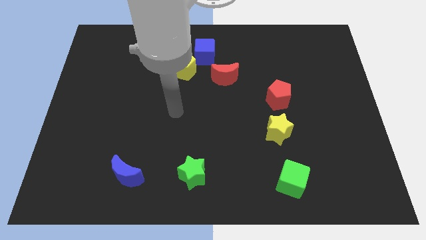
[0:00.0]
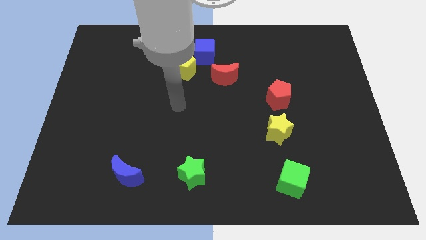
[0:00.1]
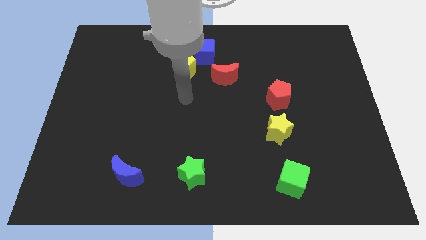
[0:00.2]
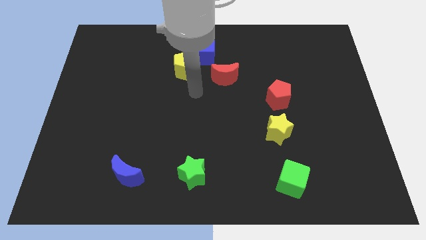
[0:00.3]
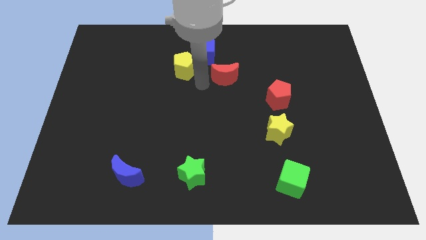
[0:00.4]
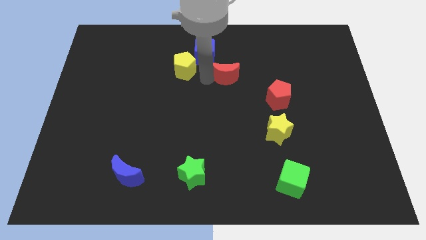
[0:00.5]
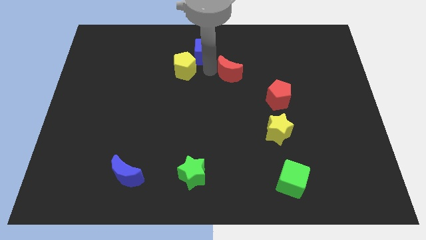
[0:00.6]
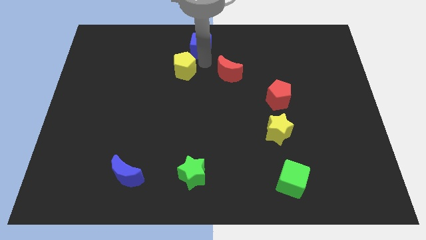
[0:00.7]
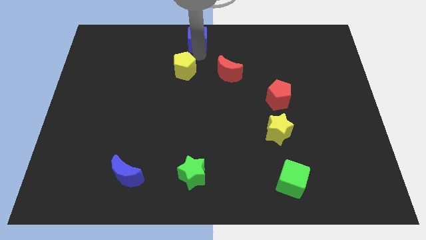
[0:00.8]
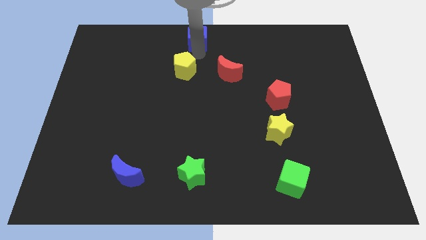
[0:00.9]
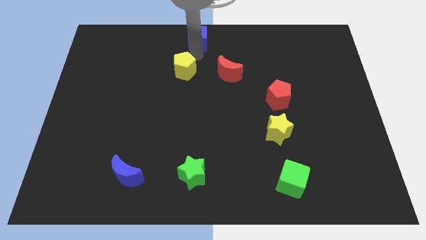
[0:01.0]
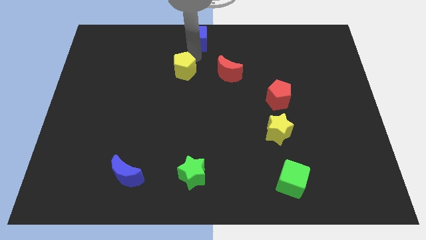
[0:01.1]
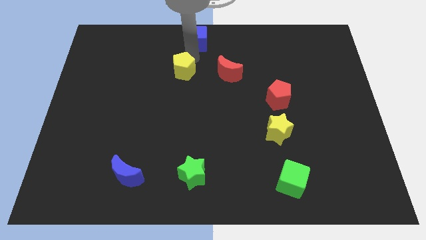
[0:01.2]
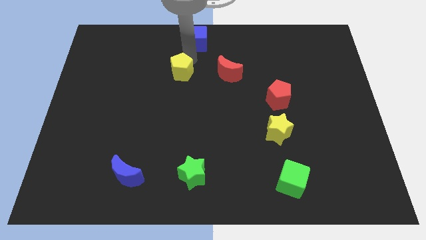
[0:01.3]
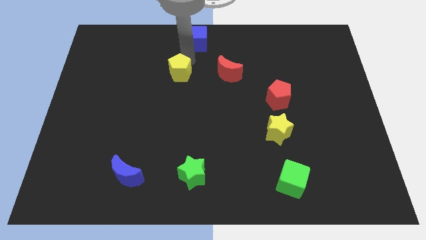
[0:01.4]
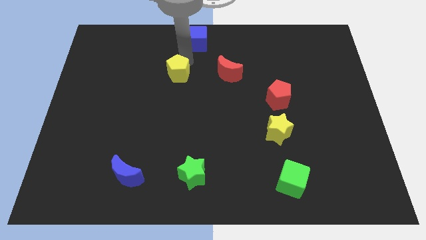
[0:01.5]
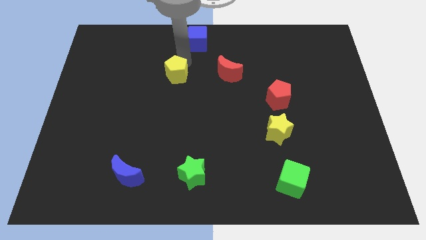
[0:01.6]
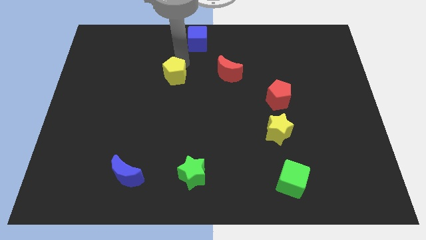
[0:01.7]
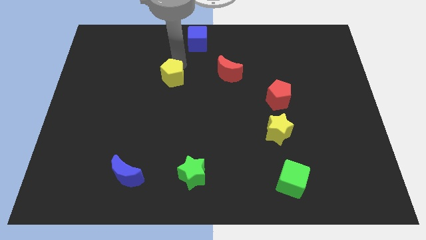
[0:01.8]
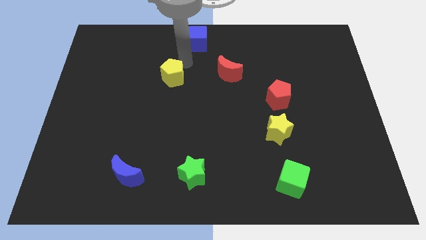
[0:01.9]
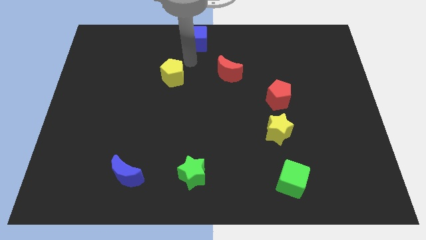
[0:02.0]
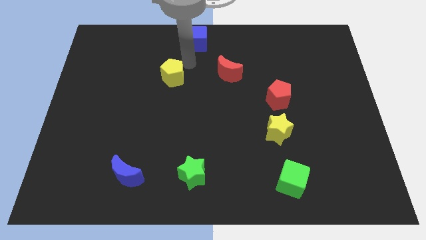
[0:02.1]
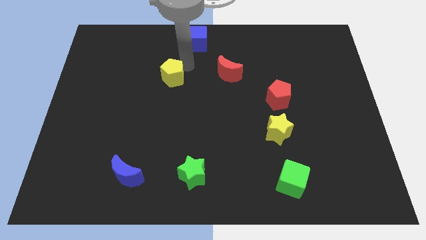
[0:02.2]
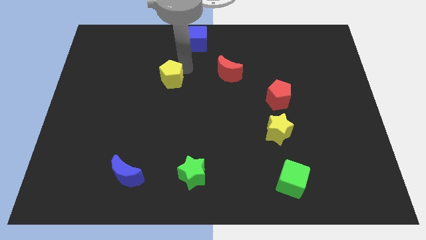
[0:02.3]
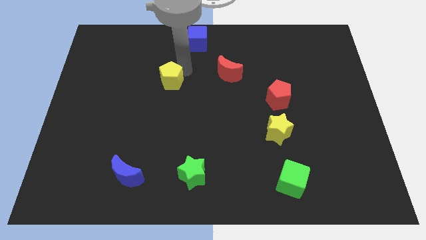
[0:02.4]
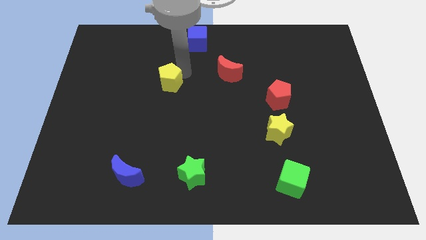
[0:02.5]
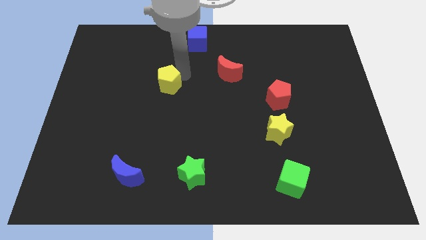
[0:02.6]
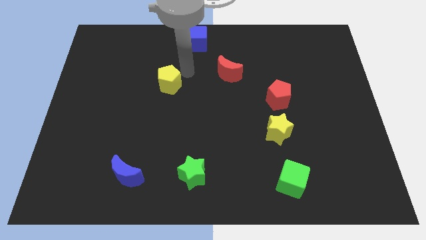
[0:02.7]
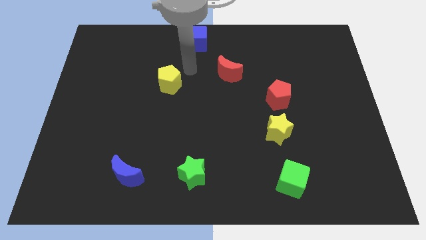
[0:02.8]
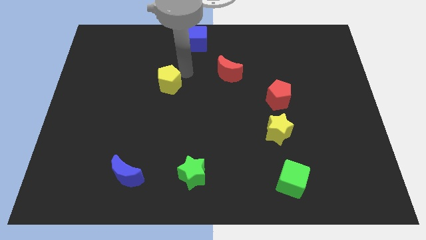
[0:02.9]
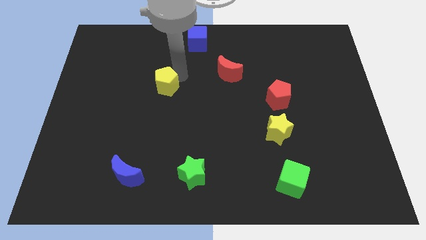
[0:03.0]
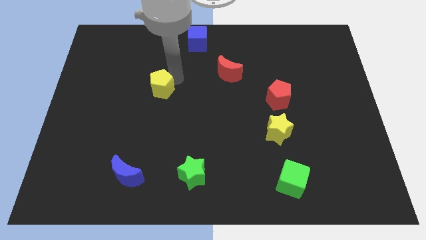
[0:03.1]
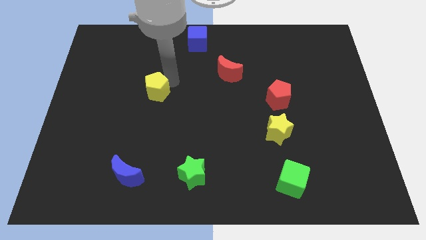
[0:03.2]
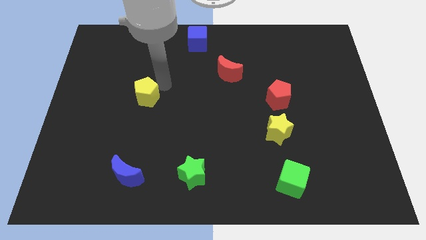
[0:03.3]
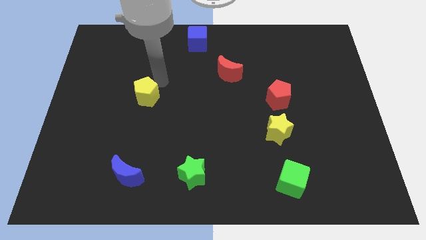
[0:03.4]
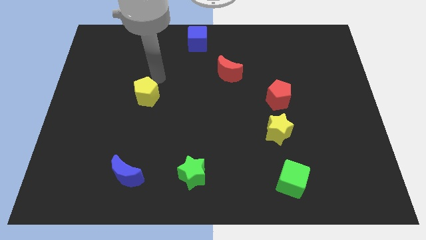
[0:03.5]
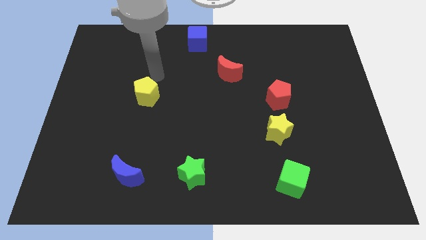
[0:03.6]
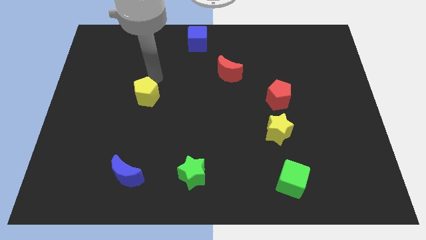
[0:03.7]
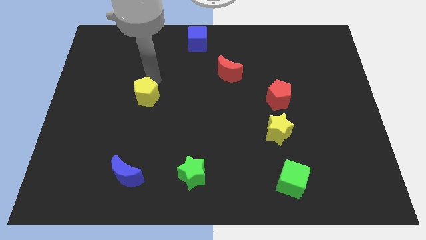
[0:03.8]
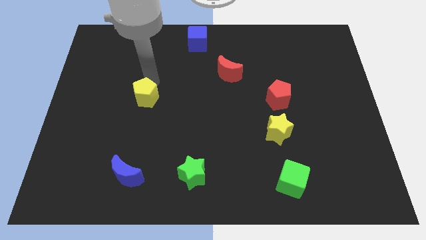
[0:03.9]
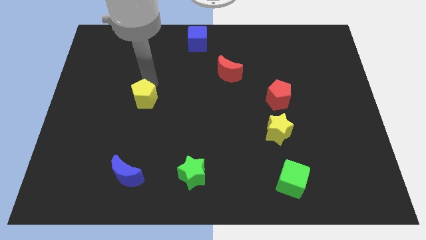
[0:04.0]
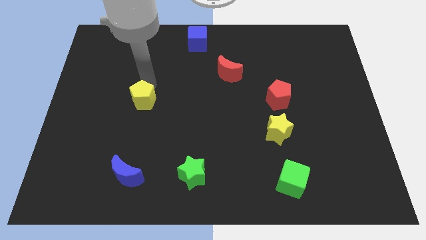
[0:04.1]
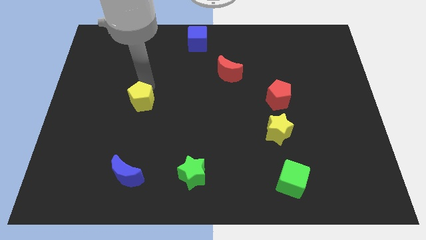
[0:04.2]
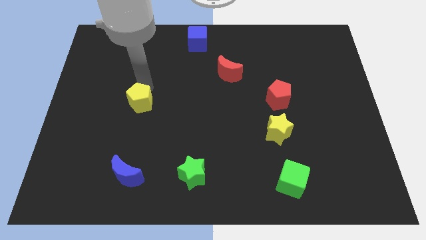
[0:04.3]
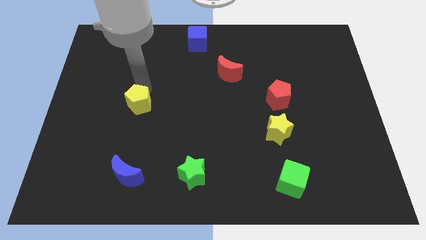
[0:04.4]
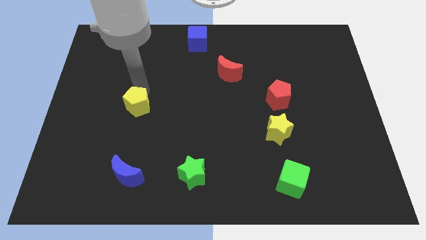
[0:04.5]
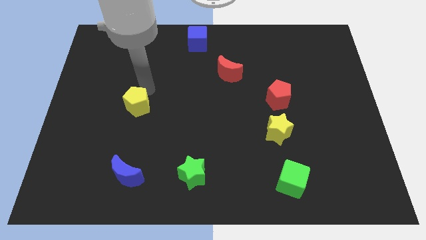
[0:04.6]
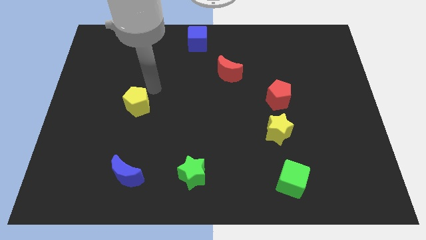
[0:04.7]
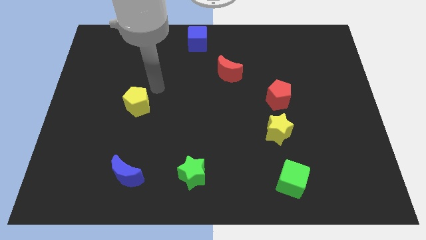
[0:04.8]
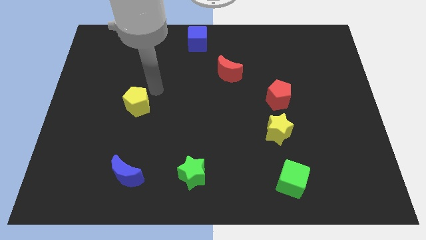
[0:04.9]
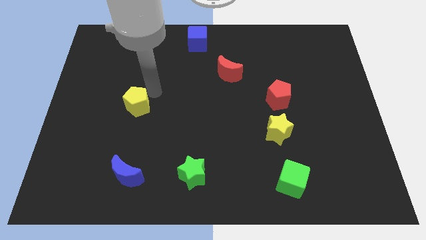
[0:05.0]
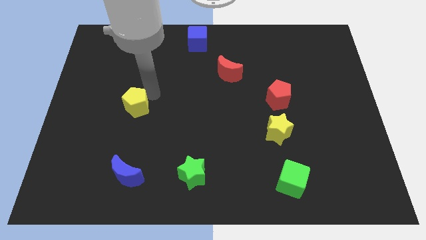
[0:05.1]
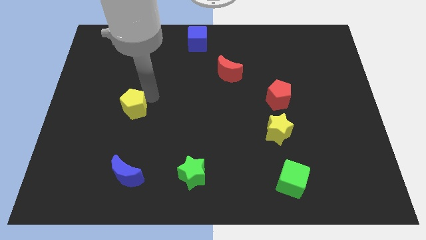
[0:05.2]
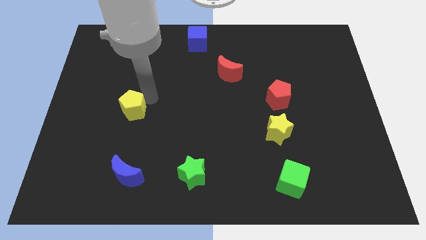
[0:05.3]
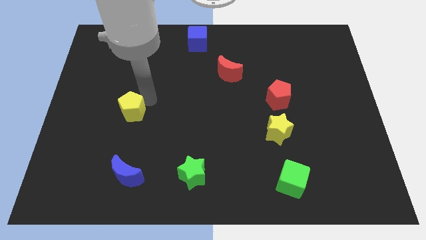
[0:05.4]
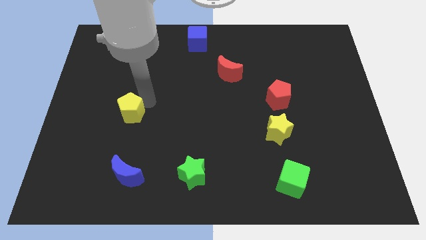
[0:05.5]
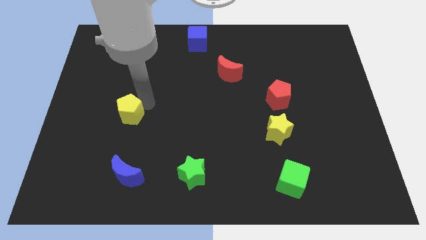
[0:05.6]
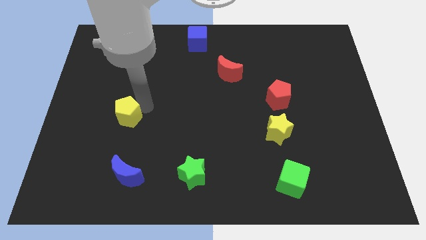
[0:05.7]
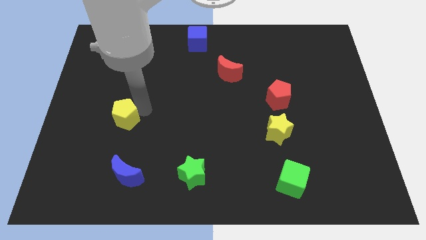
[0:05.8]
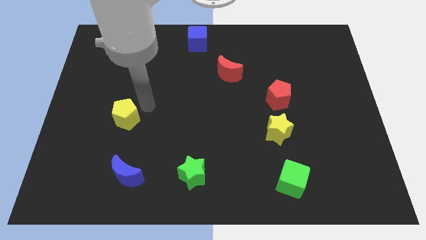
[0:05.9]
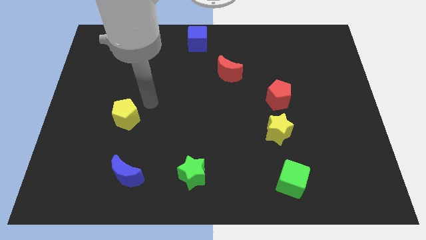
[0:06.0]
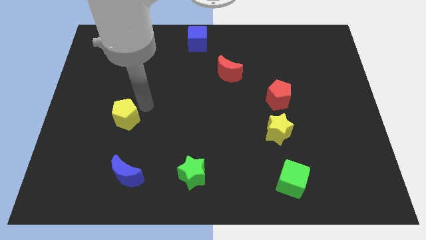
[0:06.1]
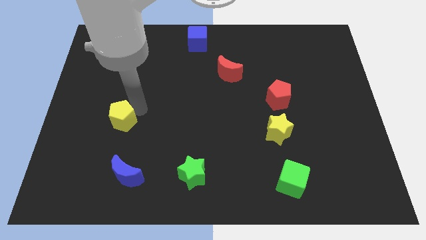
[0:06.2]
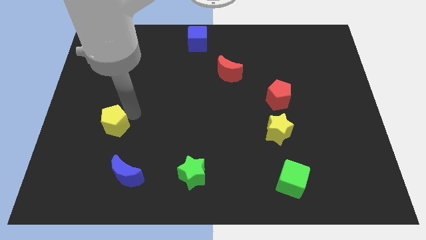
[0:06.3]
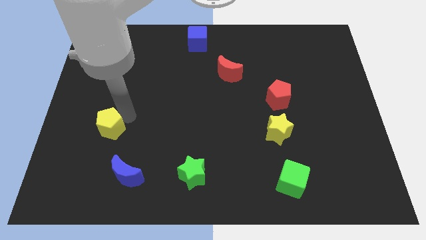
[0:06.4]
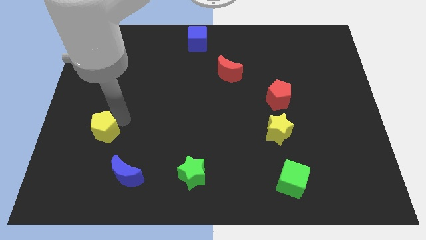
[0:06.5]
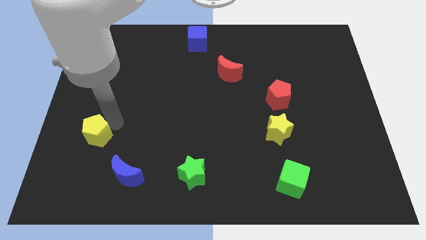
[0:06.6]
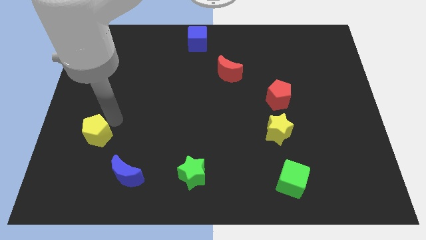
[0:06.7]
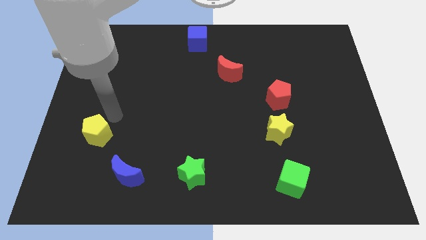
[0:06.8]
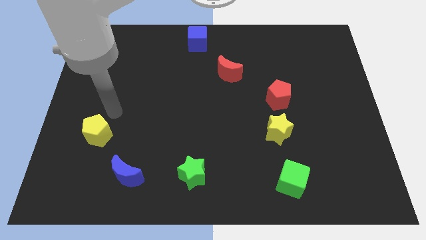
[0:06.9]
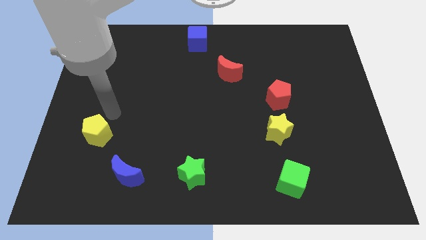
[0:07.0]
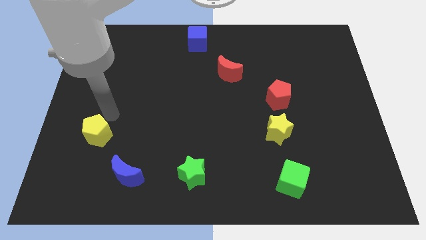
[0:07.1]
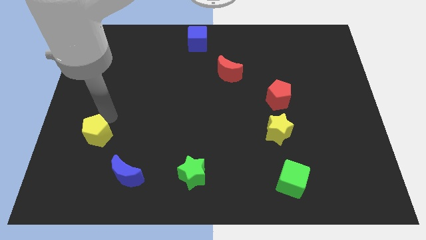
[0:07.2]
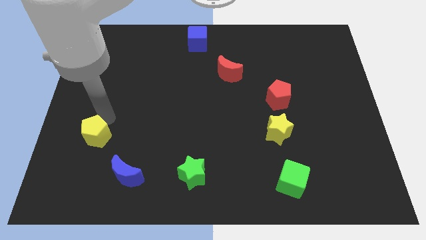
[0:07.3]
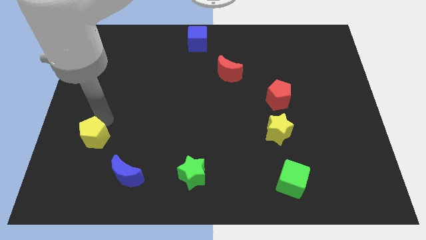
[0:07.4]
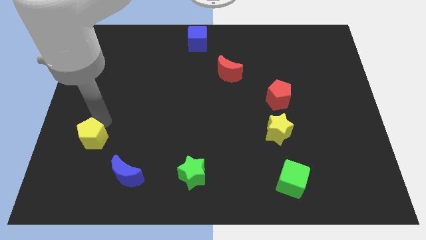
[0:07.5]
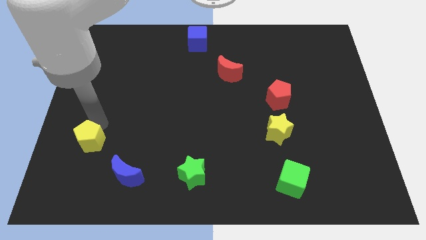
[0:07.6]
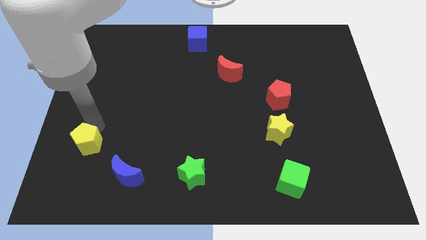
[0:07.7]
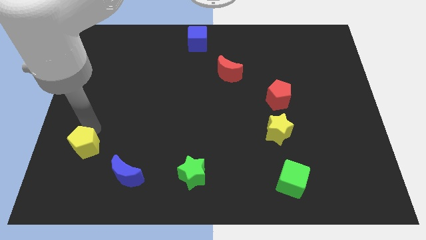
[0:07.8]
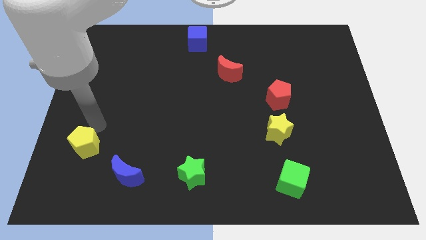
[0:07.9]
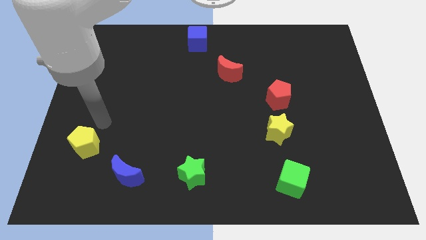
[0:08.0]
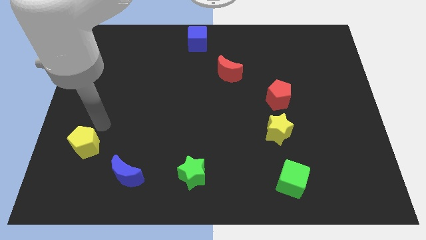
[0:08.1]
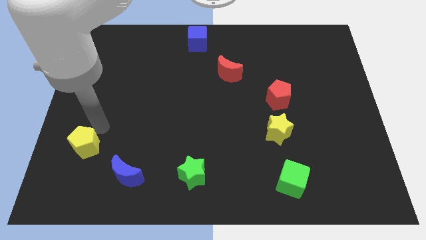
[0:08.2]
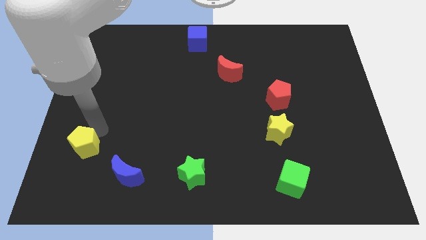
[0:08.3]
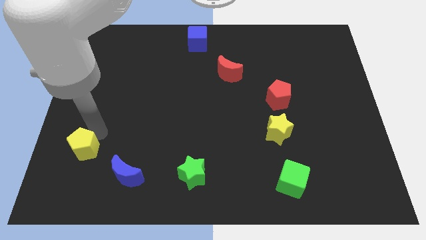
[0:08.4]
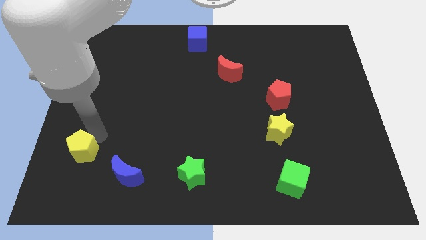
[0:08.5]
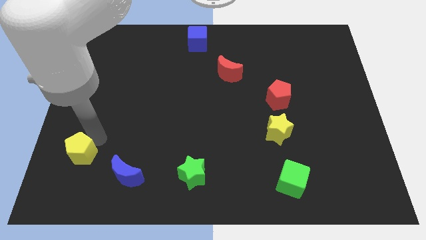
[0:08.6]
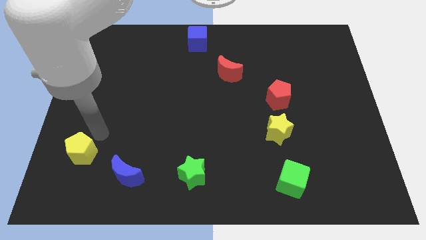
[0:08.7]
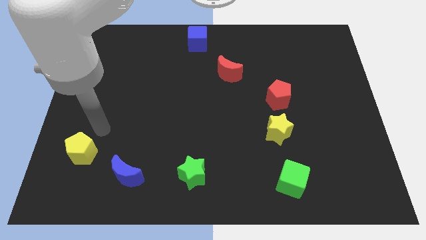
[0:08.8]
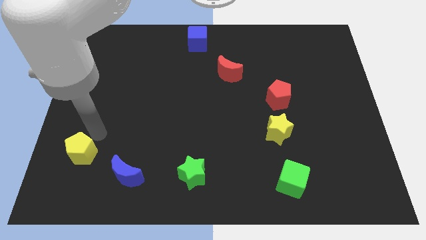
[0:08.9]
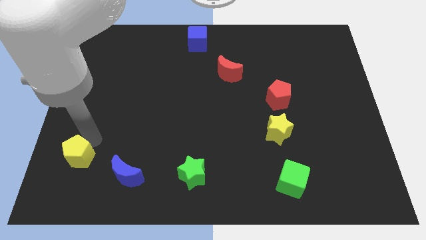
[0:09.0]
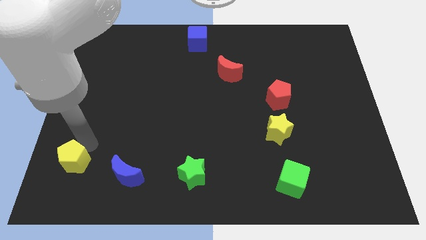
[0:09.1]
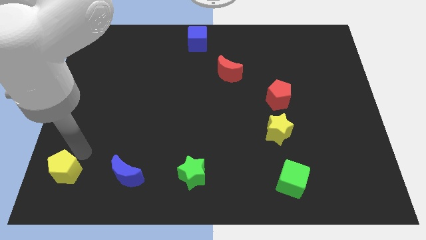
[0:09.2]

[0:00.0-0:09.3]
put the yellow pentagon to the lower left corner
